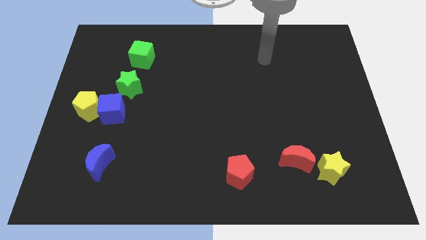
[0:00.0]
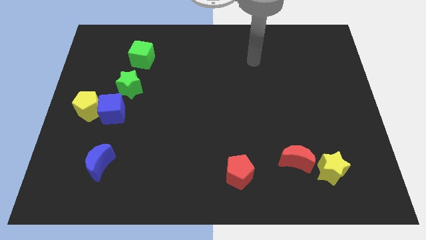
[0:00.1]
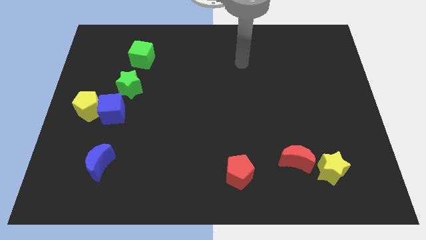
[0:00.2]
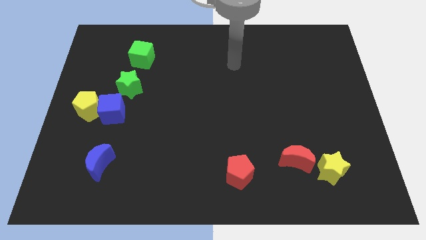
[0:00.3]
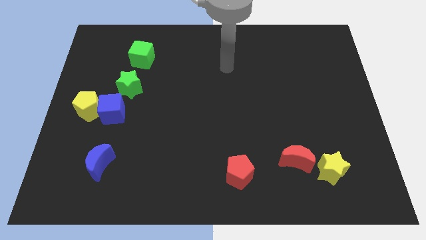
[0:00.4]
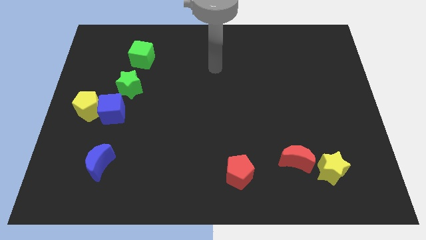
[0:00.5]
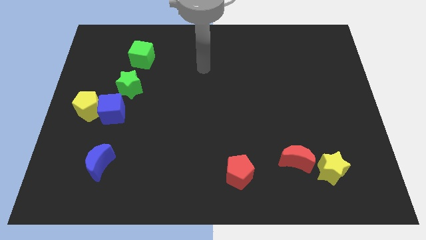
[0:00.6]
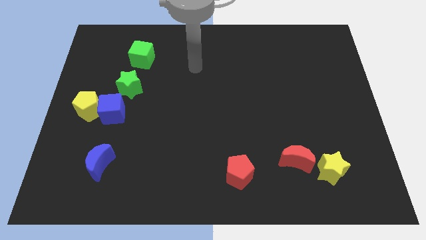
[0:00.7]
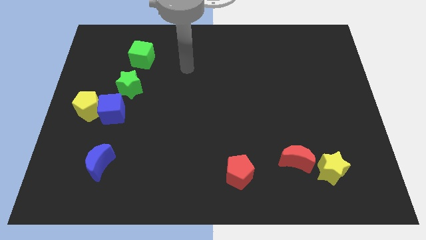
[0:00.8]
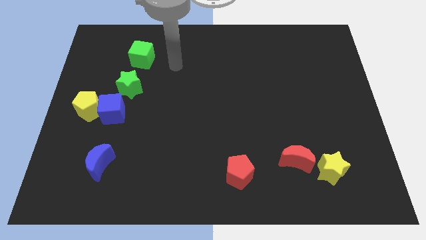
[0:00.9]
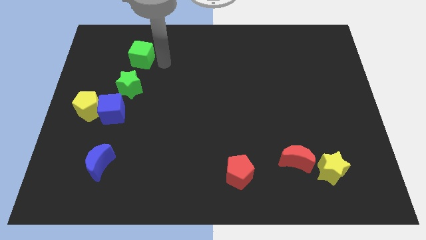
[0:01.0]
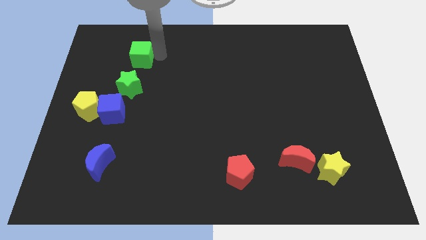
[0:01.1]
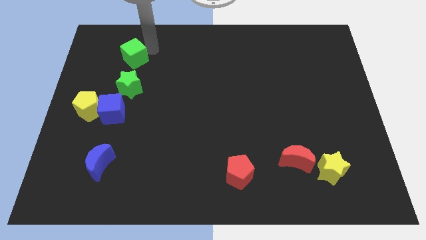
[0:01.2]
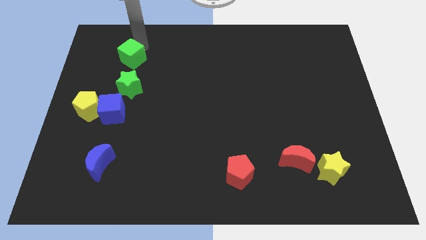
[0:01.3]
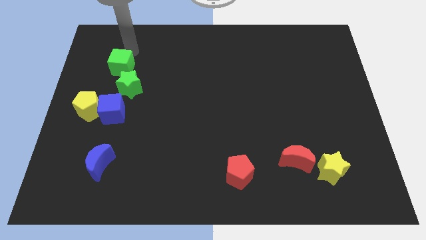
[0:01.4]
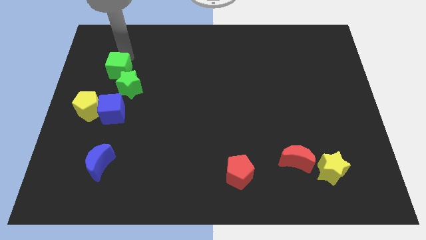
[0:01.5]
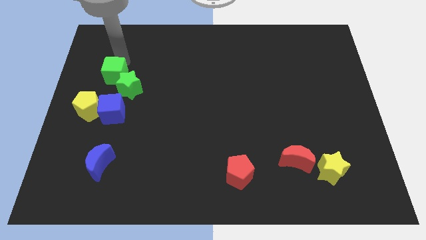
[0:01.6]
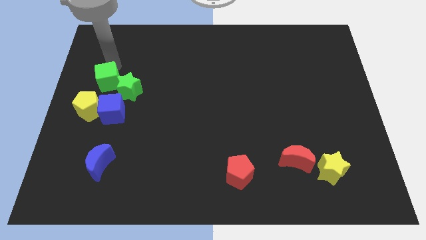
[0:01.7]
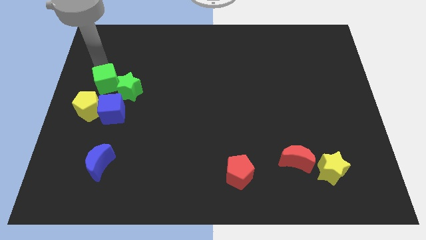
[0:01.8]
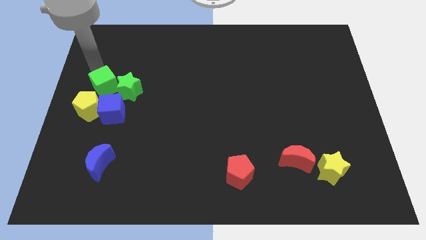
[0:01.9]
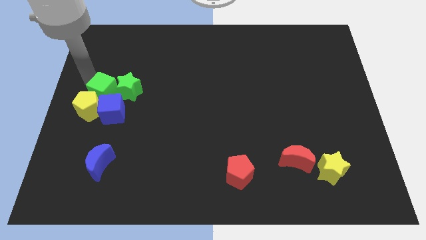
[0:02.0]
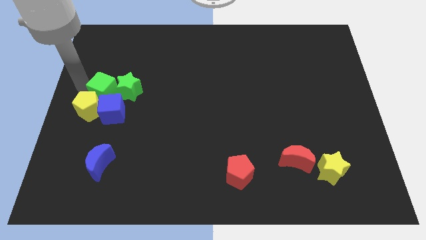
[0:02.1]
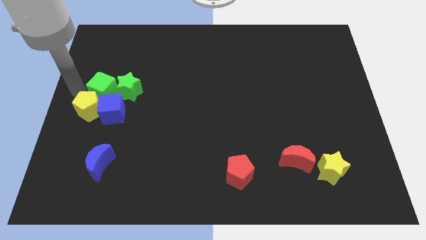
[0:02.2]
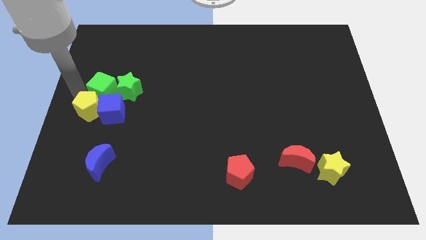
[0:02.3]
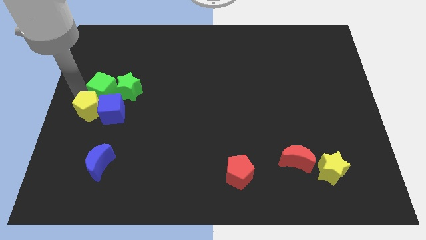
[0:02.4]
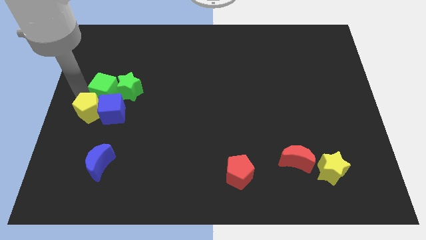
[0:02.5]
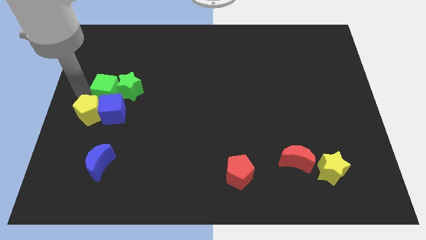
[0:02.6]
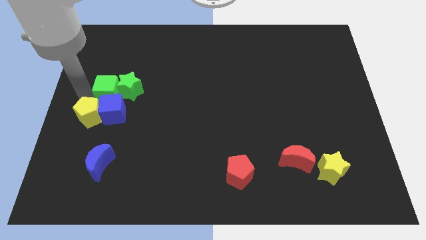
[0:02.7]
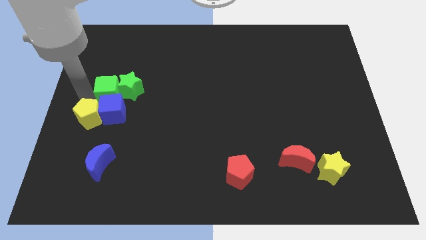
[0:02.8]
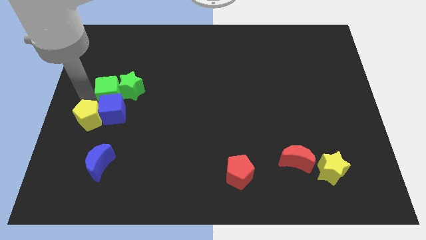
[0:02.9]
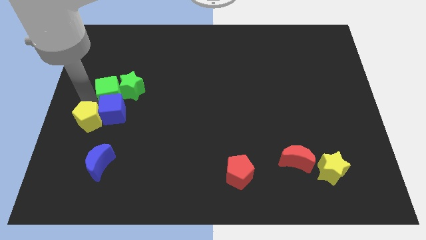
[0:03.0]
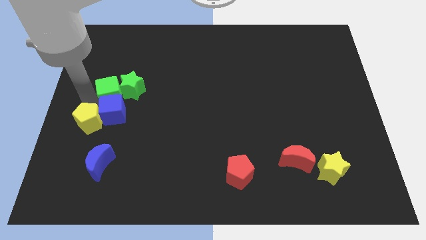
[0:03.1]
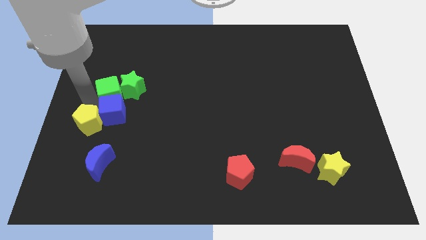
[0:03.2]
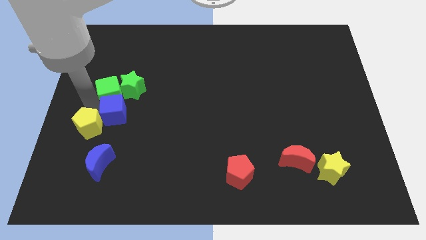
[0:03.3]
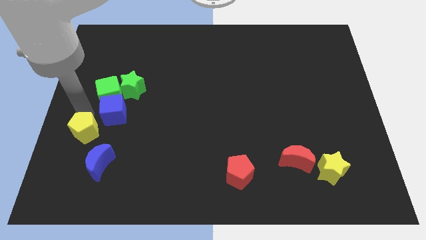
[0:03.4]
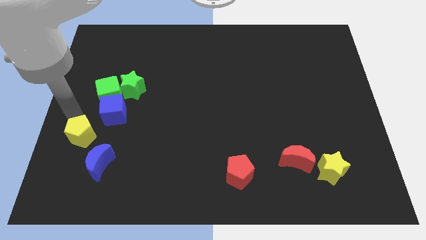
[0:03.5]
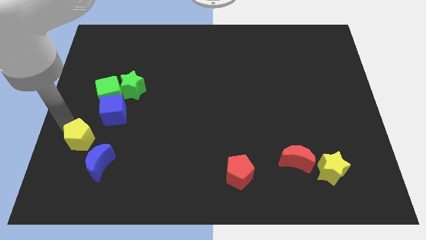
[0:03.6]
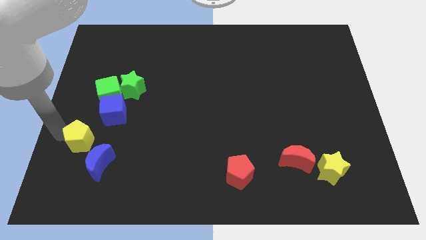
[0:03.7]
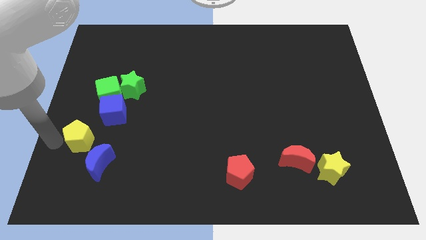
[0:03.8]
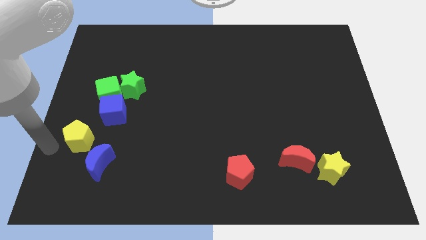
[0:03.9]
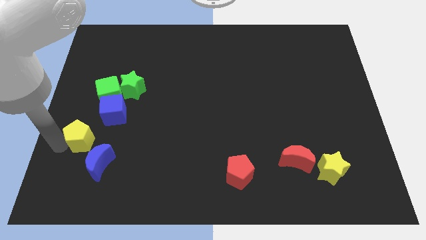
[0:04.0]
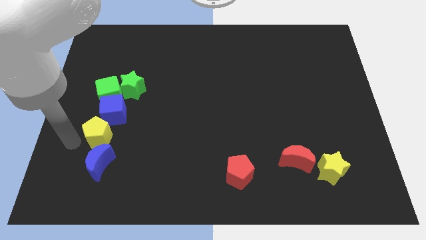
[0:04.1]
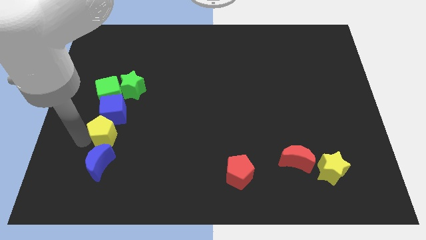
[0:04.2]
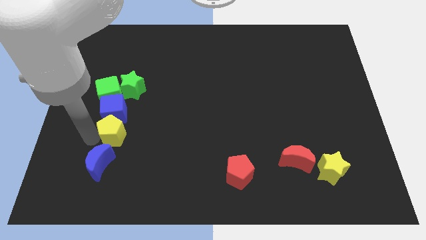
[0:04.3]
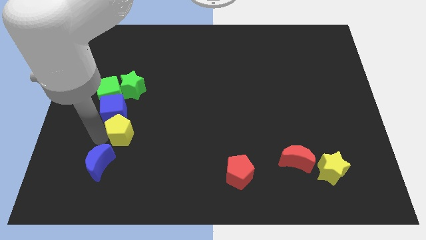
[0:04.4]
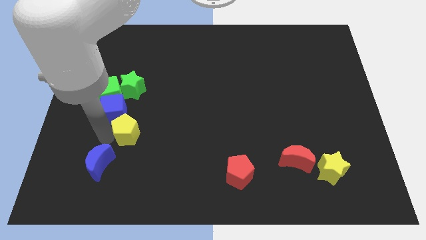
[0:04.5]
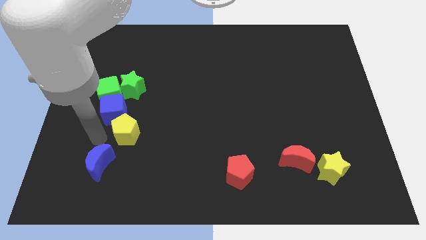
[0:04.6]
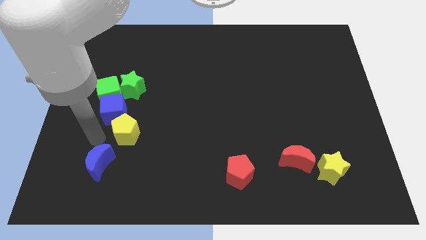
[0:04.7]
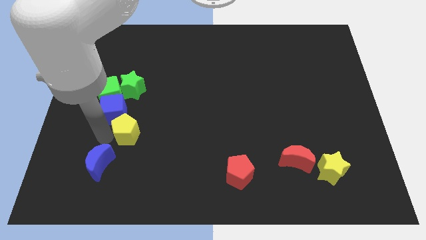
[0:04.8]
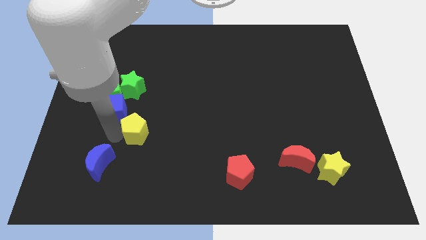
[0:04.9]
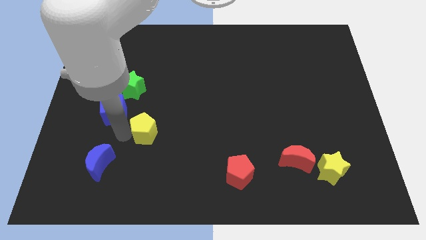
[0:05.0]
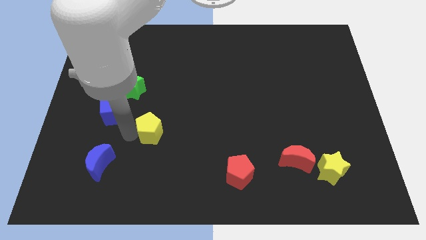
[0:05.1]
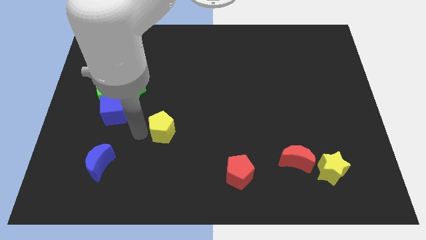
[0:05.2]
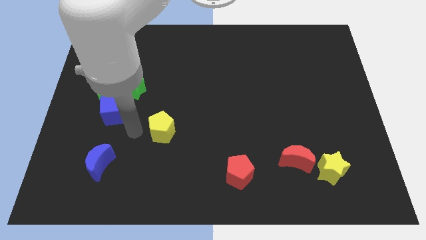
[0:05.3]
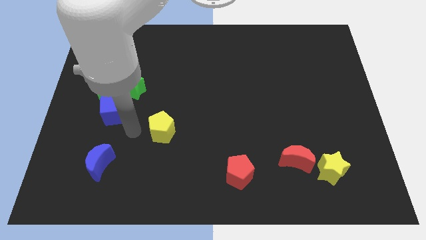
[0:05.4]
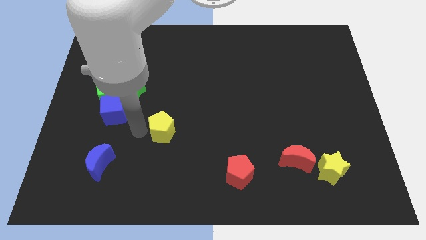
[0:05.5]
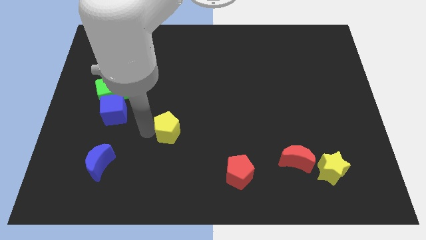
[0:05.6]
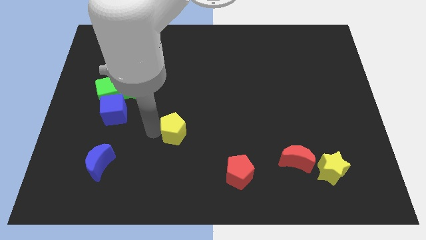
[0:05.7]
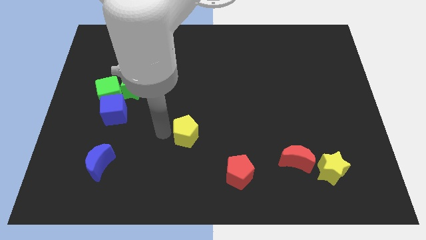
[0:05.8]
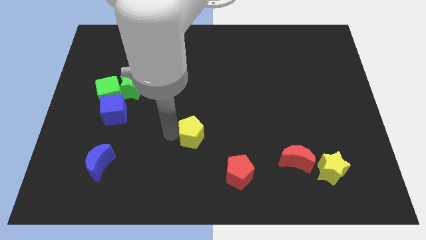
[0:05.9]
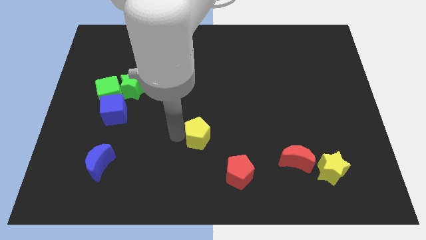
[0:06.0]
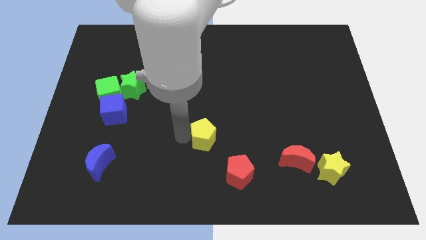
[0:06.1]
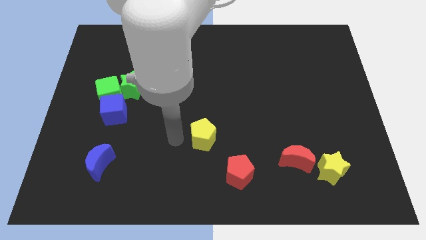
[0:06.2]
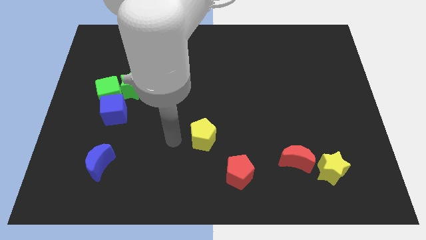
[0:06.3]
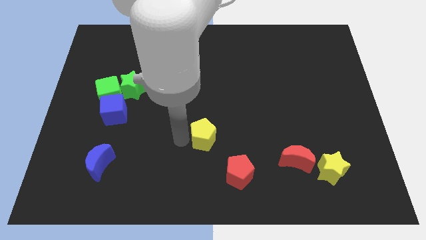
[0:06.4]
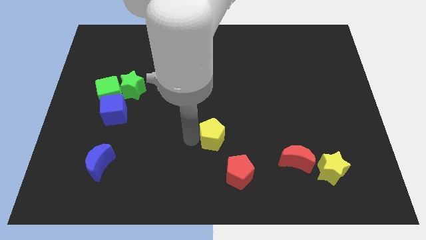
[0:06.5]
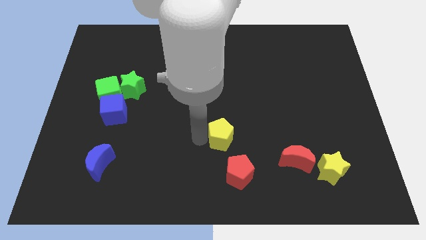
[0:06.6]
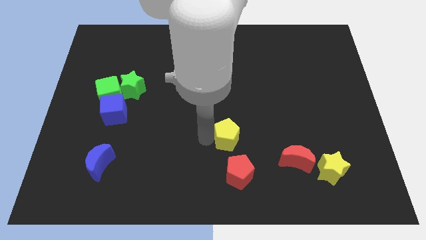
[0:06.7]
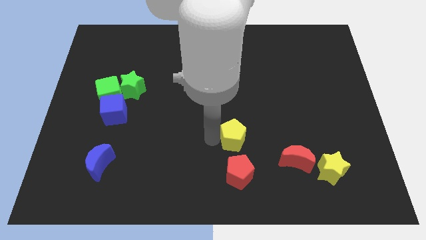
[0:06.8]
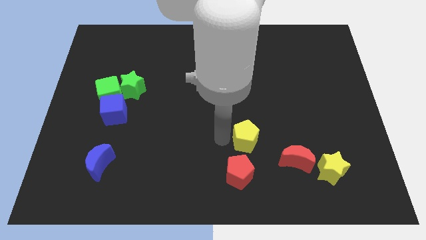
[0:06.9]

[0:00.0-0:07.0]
put the yellow pentagon to the top left of the red moon
